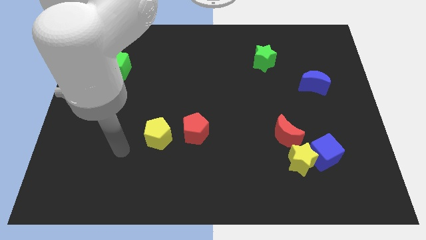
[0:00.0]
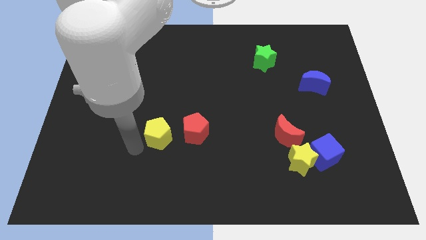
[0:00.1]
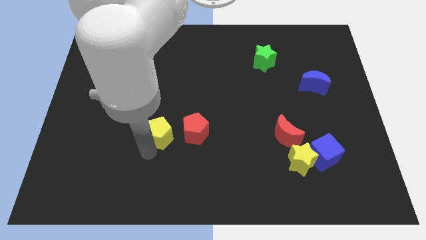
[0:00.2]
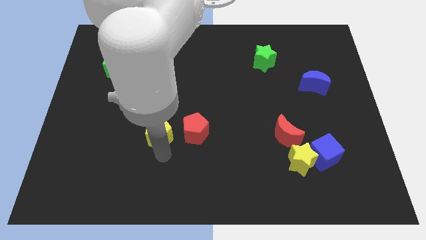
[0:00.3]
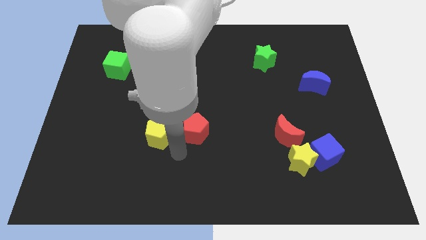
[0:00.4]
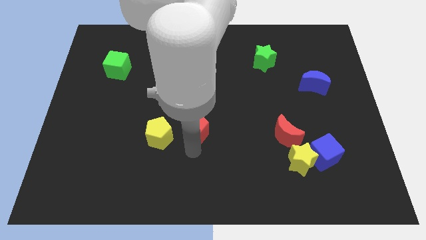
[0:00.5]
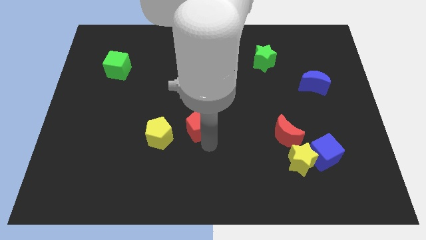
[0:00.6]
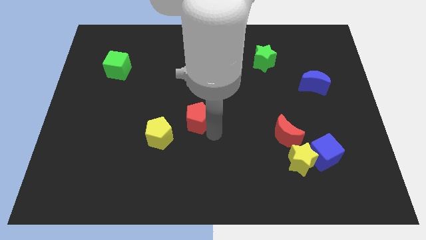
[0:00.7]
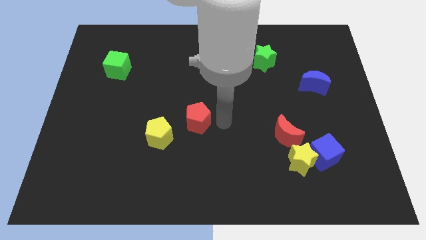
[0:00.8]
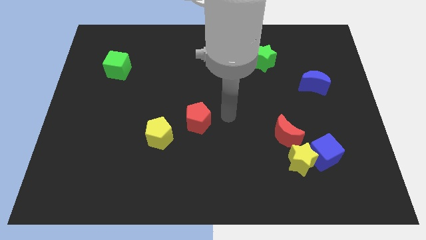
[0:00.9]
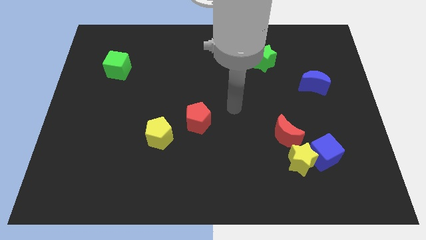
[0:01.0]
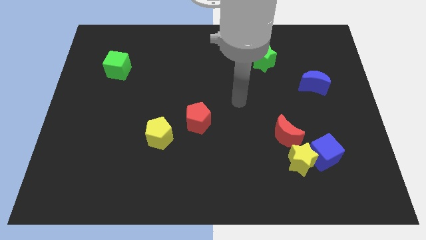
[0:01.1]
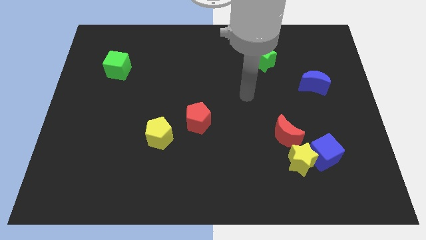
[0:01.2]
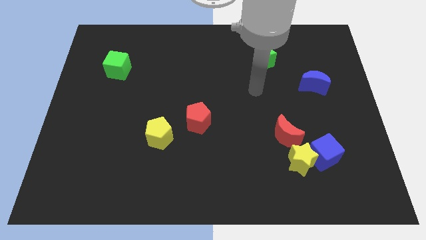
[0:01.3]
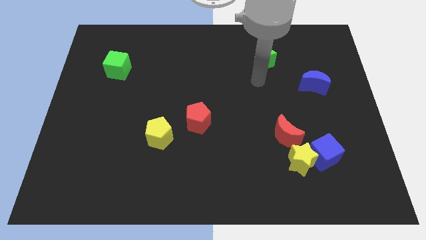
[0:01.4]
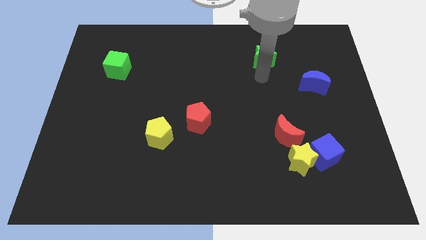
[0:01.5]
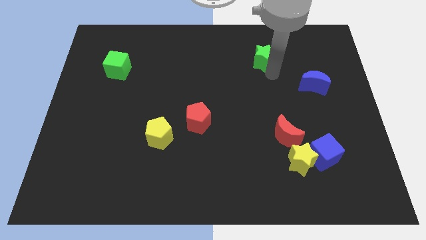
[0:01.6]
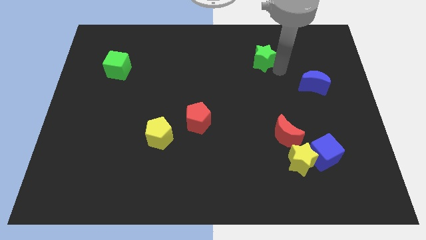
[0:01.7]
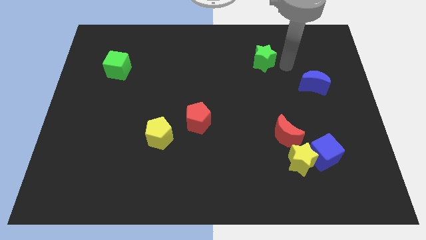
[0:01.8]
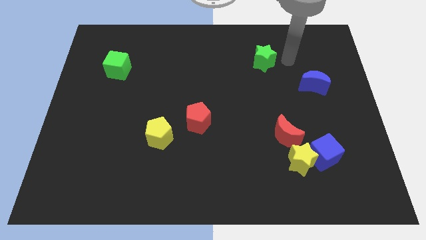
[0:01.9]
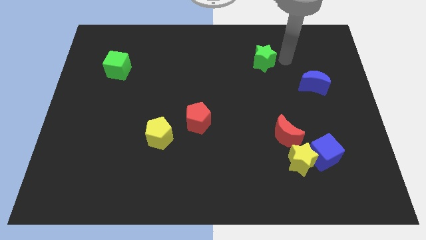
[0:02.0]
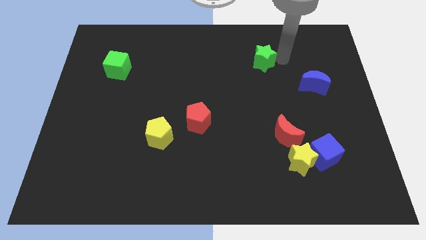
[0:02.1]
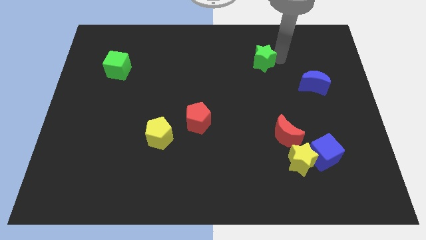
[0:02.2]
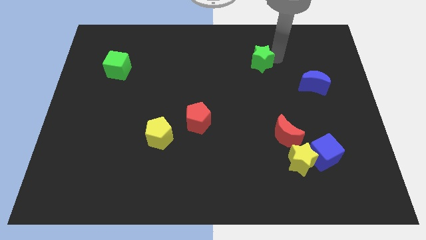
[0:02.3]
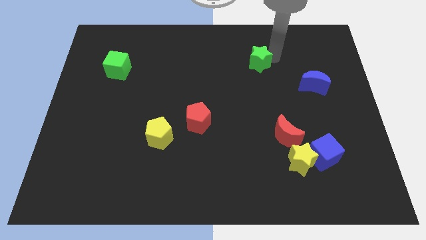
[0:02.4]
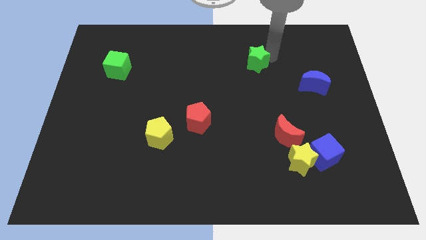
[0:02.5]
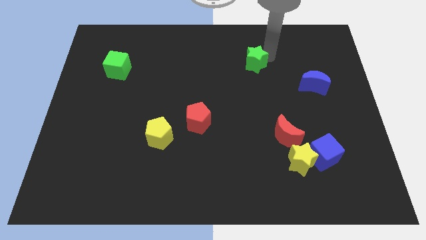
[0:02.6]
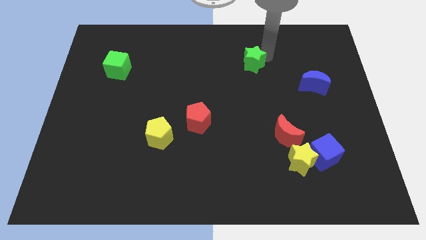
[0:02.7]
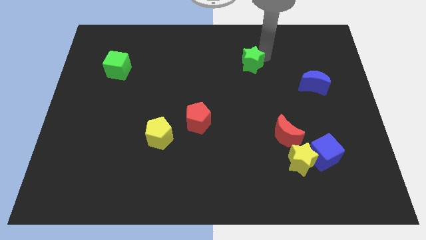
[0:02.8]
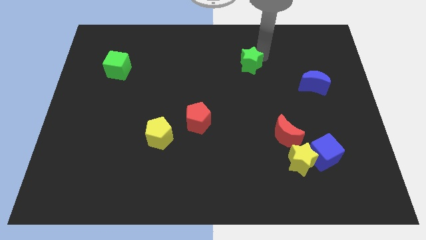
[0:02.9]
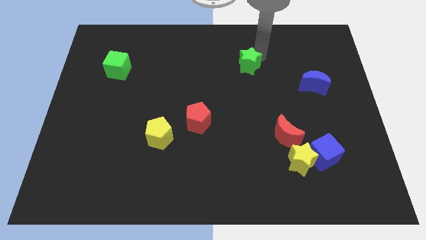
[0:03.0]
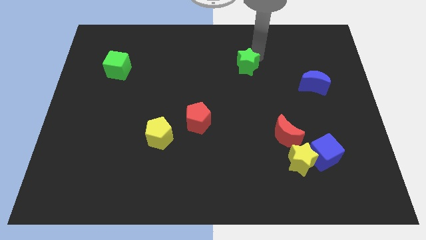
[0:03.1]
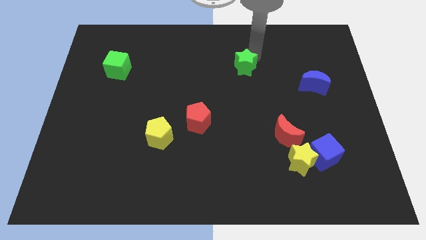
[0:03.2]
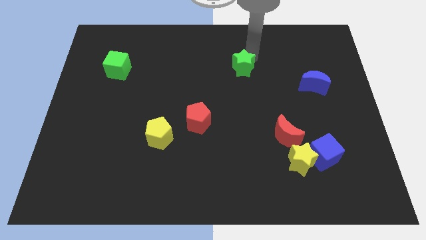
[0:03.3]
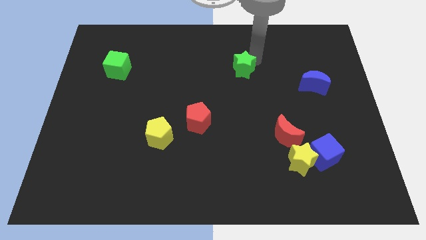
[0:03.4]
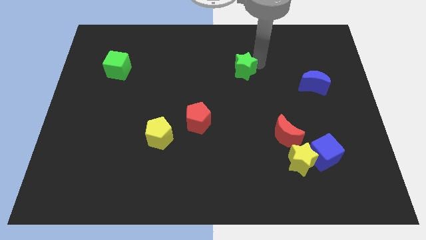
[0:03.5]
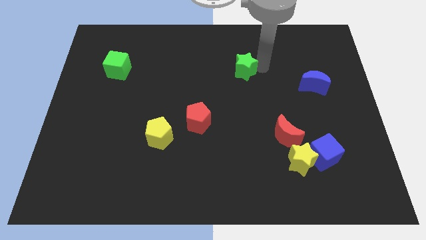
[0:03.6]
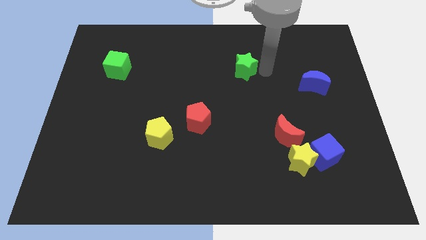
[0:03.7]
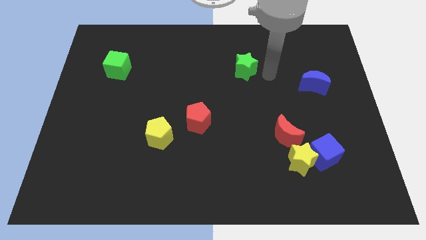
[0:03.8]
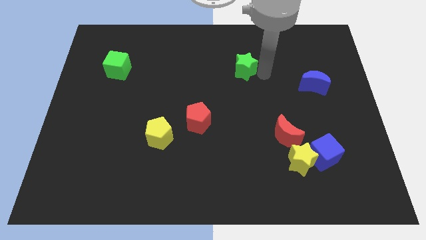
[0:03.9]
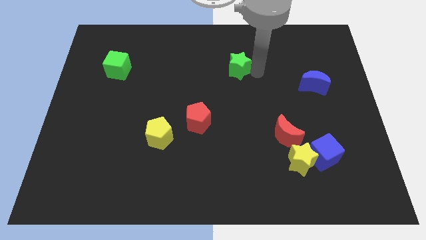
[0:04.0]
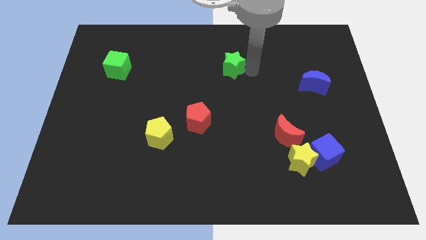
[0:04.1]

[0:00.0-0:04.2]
slightly slide the green star left

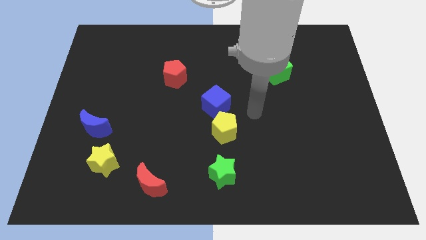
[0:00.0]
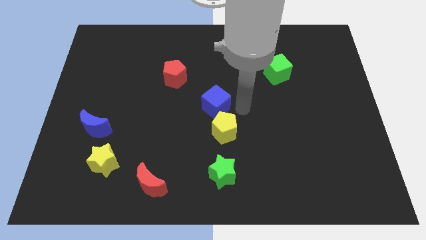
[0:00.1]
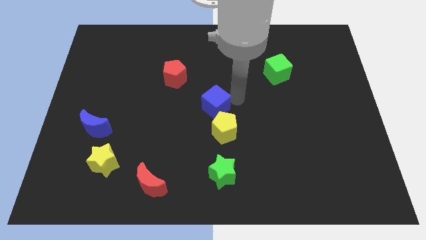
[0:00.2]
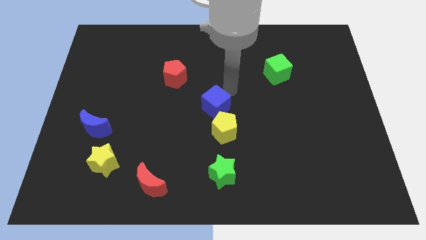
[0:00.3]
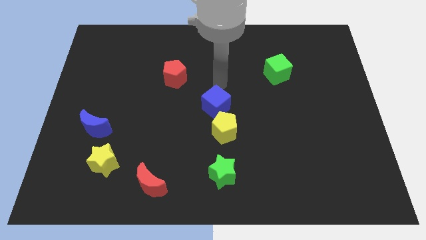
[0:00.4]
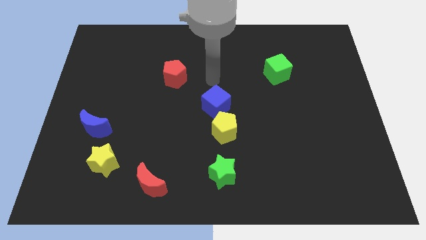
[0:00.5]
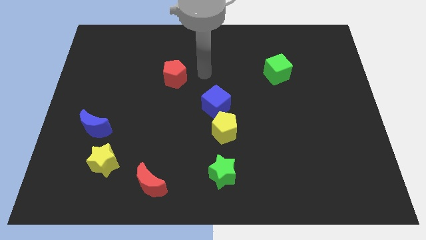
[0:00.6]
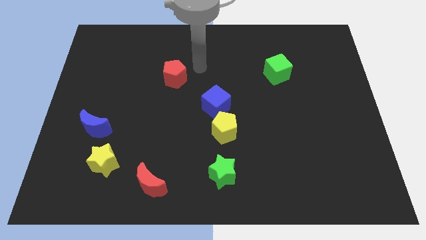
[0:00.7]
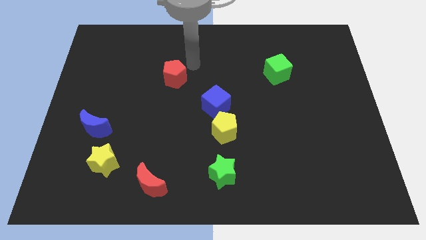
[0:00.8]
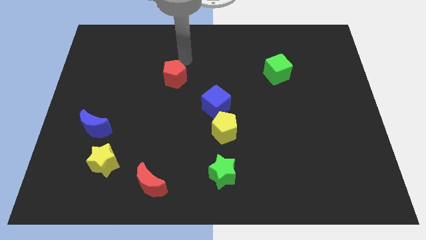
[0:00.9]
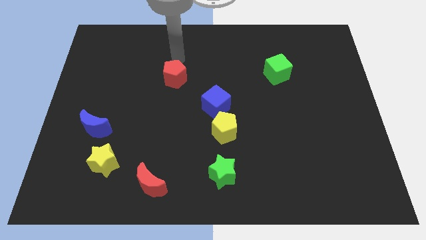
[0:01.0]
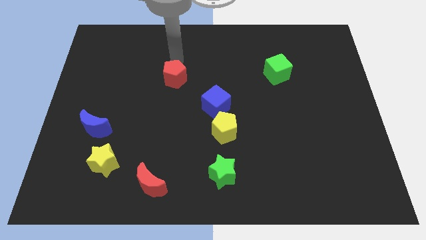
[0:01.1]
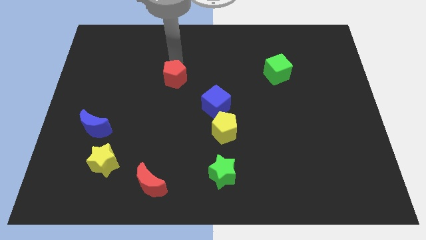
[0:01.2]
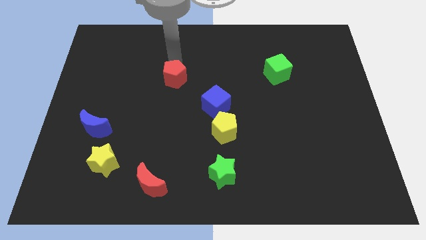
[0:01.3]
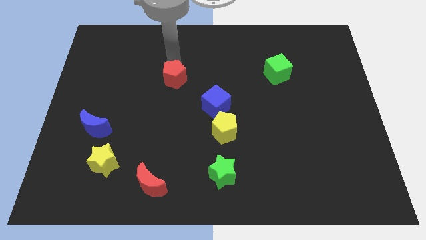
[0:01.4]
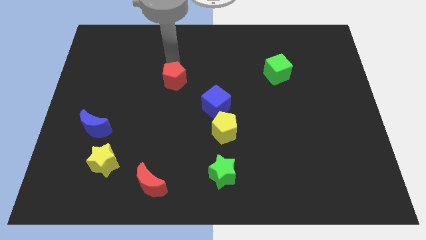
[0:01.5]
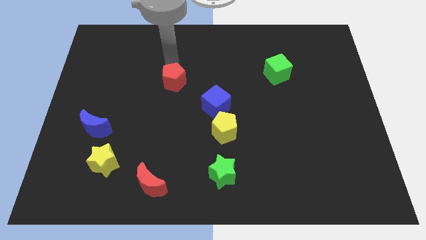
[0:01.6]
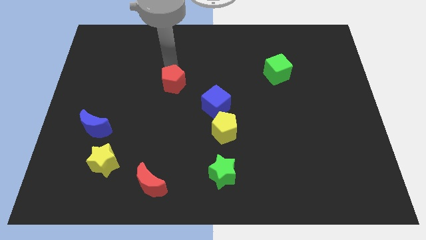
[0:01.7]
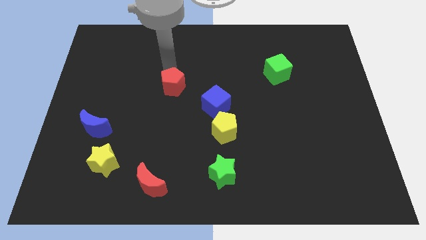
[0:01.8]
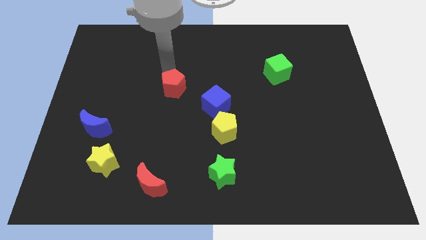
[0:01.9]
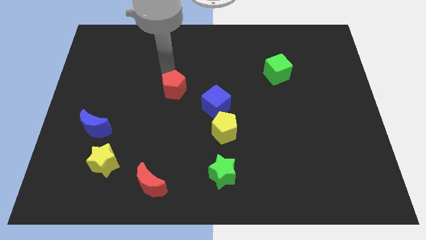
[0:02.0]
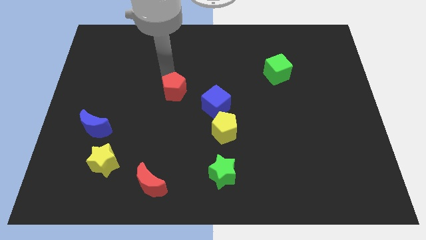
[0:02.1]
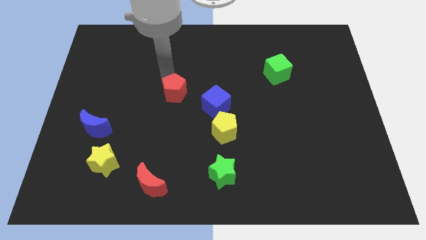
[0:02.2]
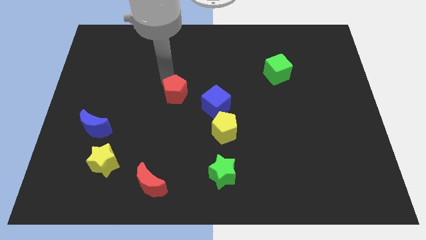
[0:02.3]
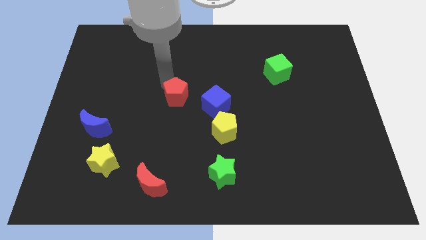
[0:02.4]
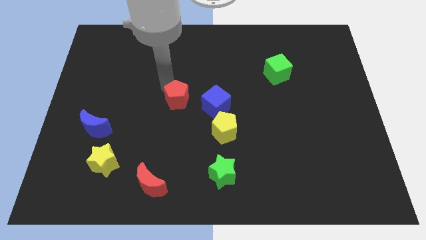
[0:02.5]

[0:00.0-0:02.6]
move the red pentagon a little downwards

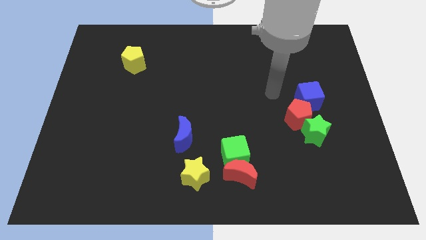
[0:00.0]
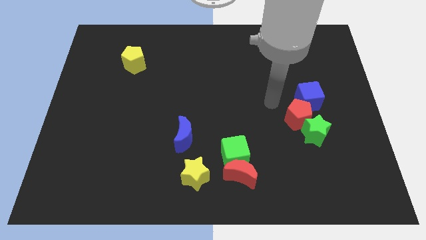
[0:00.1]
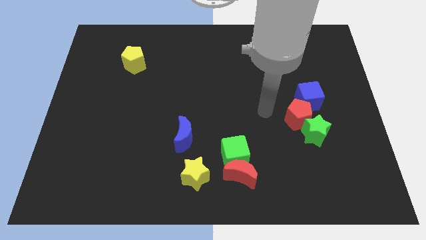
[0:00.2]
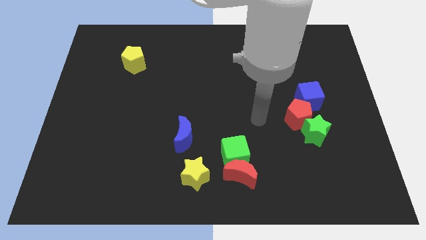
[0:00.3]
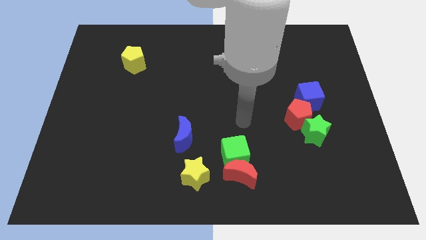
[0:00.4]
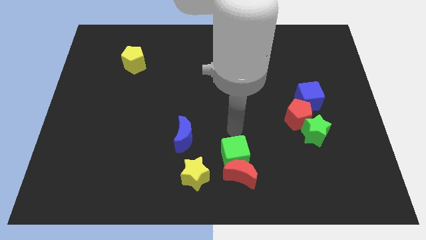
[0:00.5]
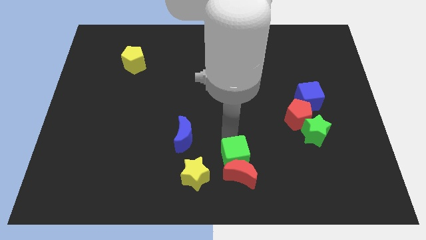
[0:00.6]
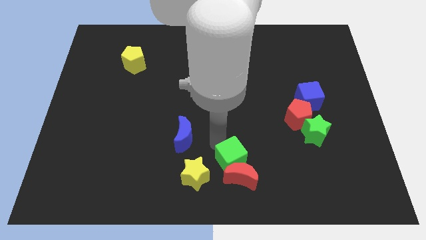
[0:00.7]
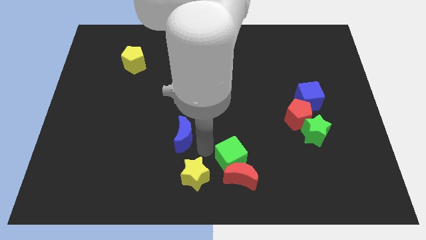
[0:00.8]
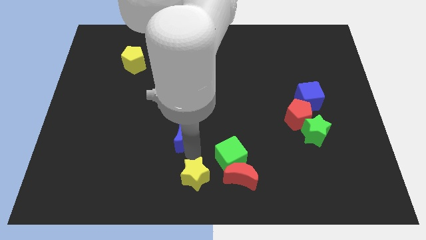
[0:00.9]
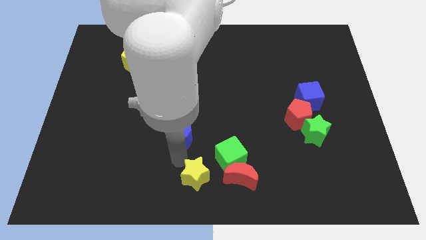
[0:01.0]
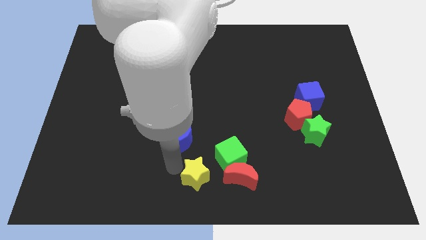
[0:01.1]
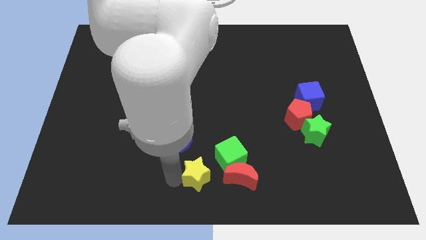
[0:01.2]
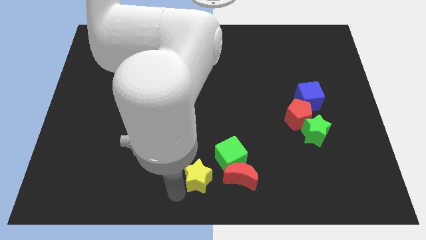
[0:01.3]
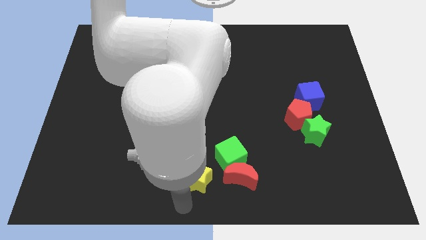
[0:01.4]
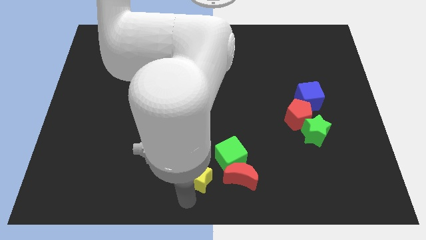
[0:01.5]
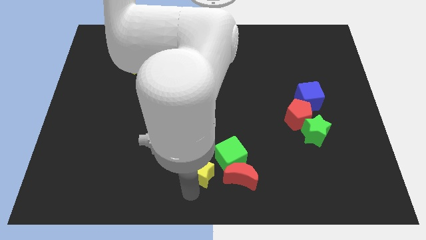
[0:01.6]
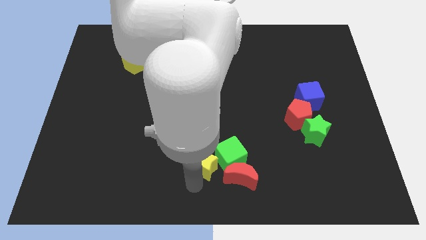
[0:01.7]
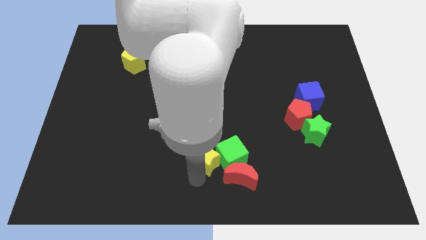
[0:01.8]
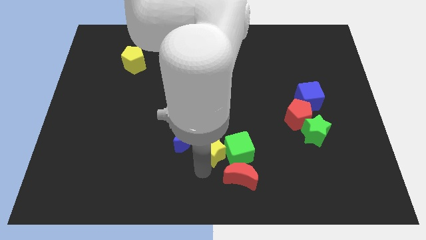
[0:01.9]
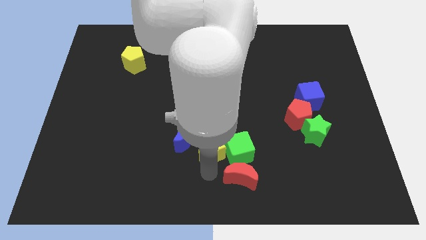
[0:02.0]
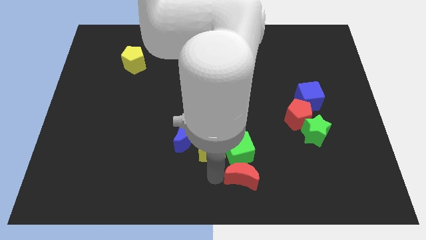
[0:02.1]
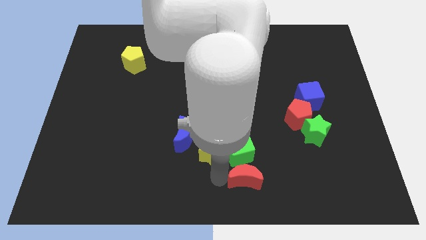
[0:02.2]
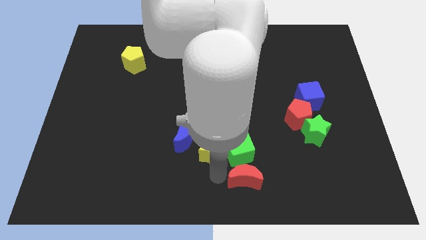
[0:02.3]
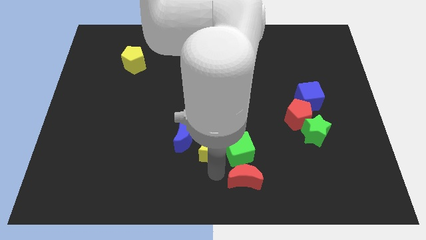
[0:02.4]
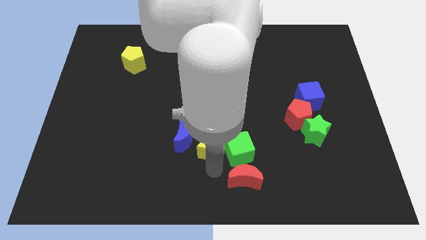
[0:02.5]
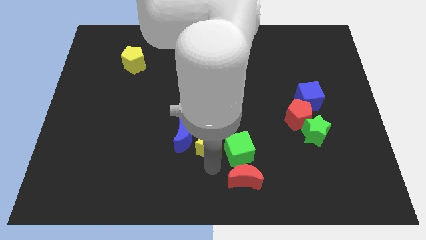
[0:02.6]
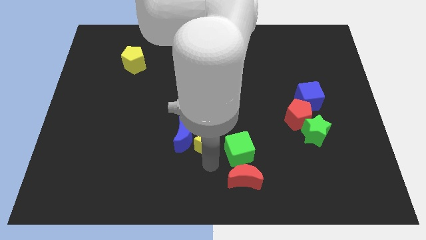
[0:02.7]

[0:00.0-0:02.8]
slightly push the yellow star up
